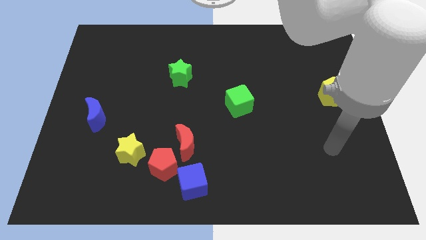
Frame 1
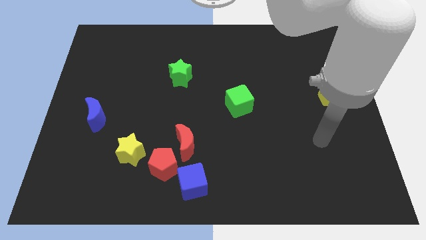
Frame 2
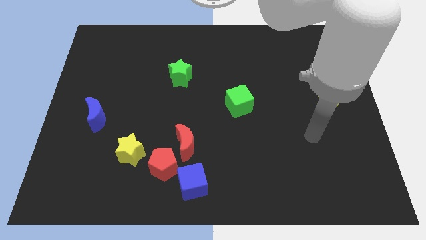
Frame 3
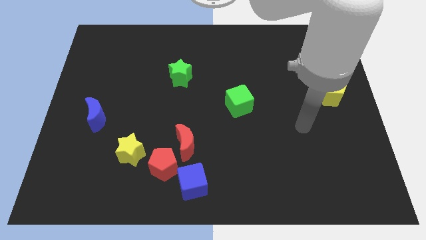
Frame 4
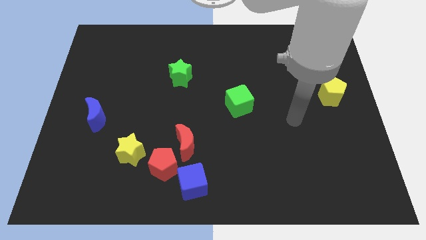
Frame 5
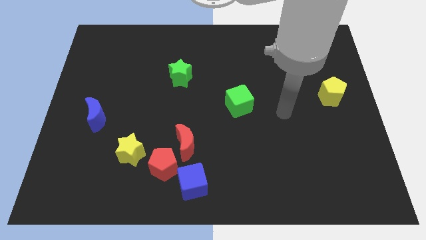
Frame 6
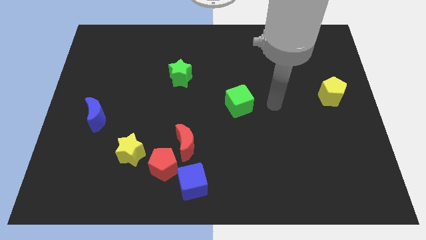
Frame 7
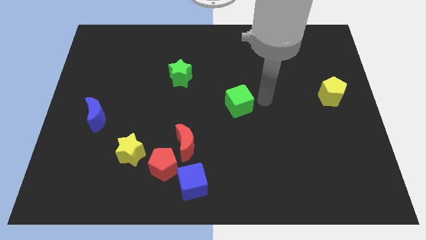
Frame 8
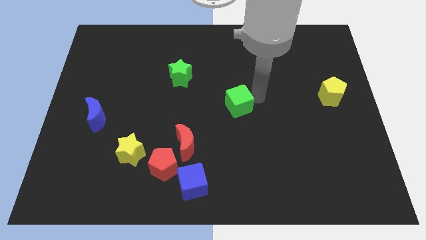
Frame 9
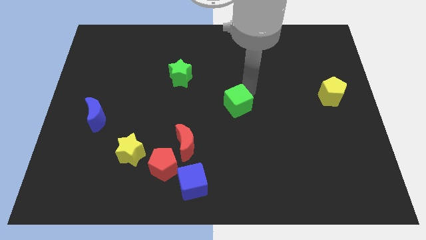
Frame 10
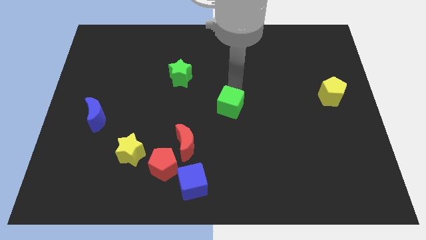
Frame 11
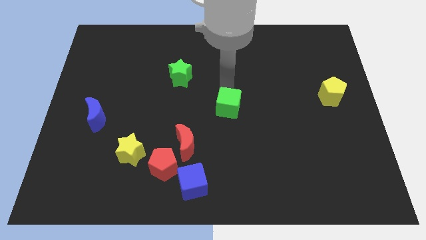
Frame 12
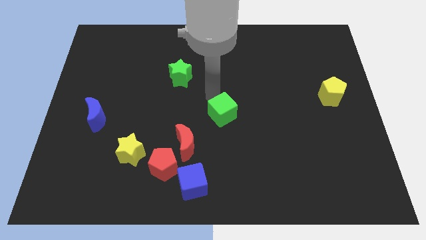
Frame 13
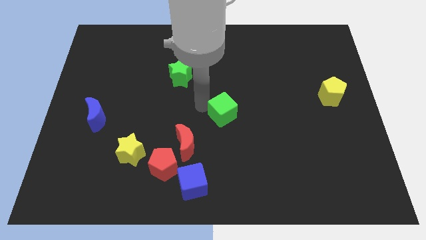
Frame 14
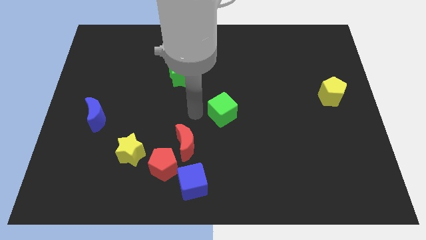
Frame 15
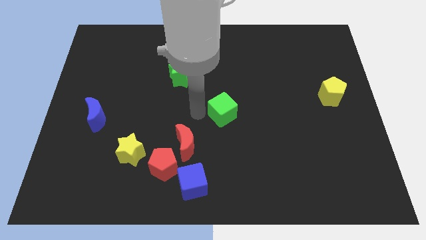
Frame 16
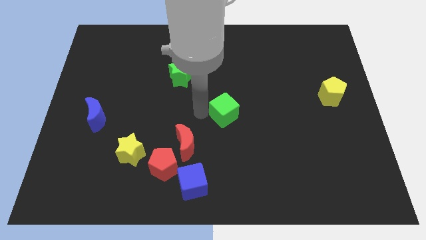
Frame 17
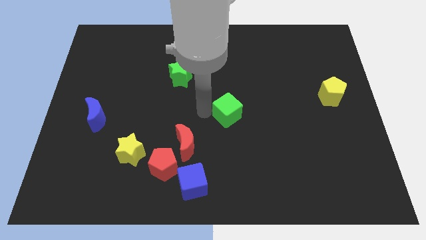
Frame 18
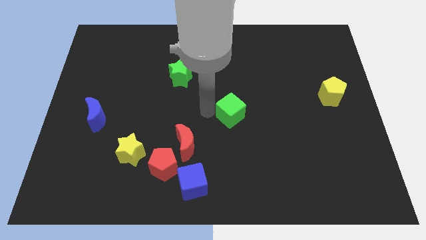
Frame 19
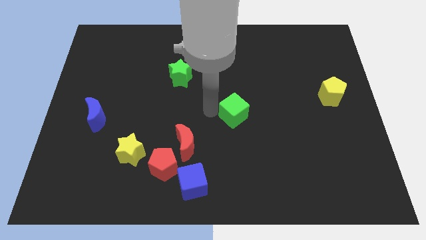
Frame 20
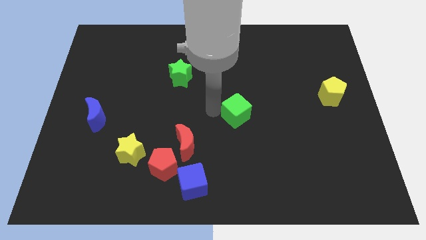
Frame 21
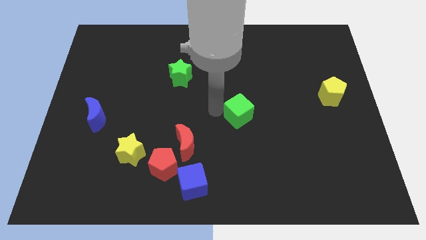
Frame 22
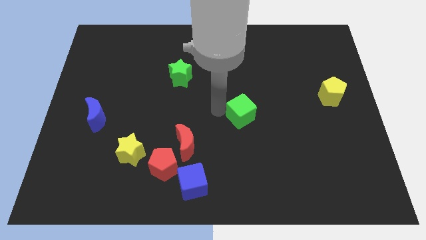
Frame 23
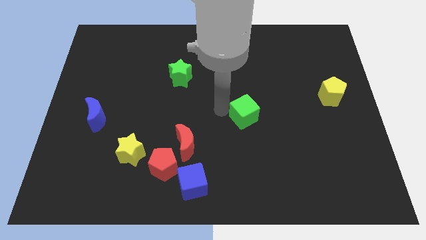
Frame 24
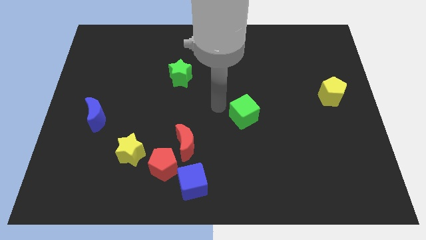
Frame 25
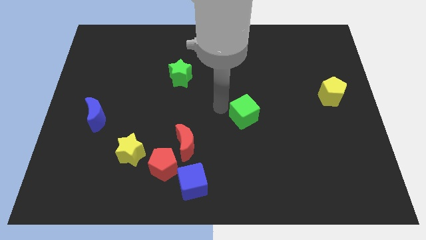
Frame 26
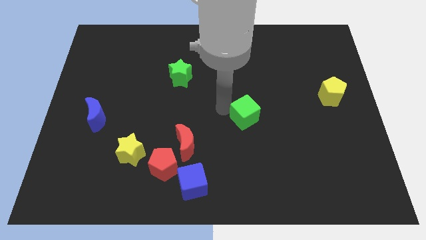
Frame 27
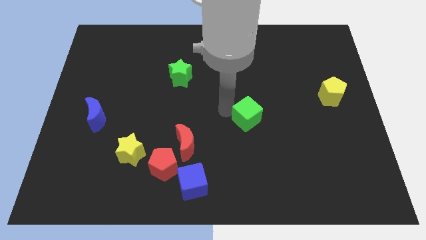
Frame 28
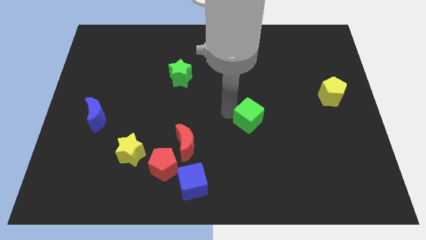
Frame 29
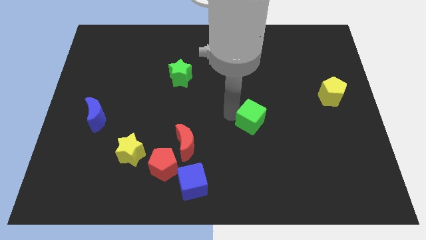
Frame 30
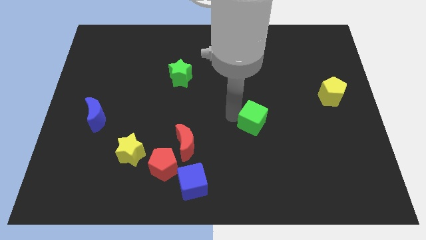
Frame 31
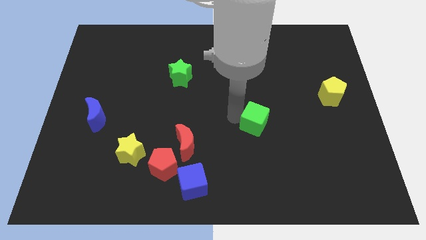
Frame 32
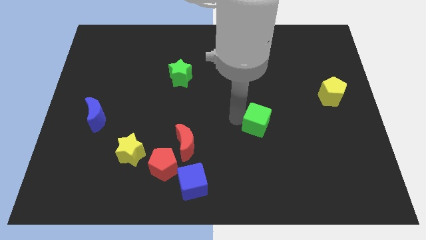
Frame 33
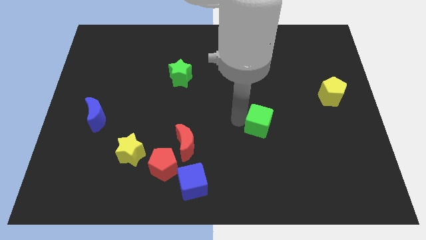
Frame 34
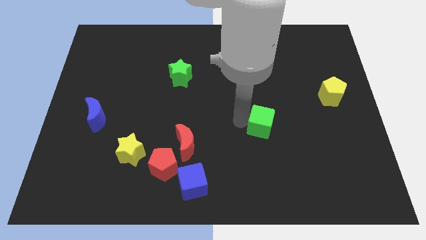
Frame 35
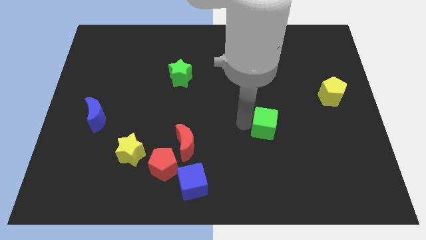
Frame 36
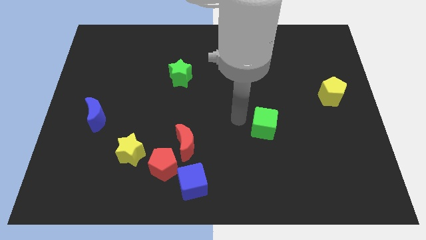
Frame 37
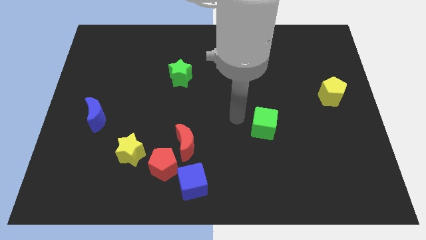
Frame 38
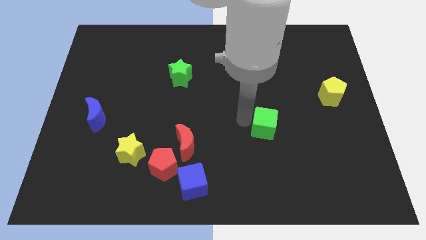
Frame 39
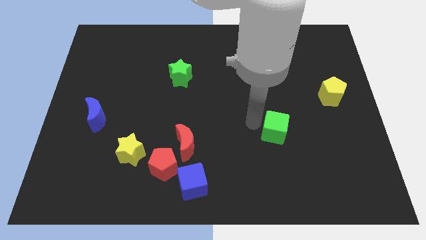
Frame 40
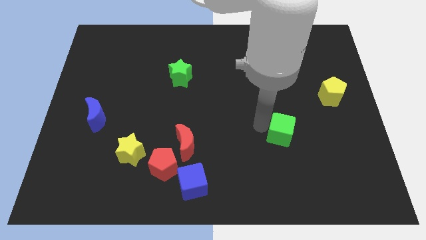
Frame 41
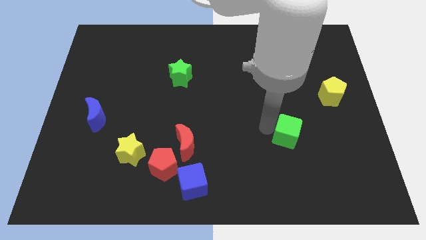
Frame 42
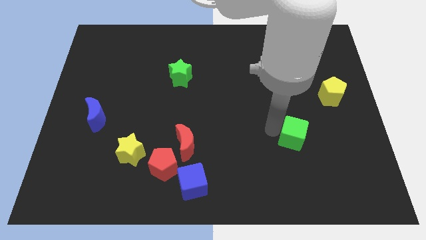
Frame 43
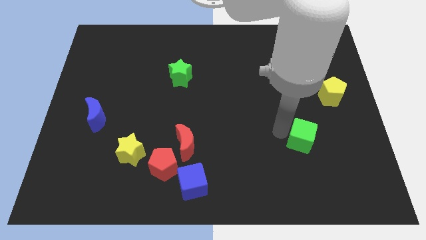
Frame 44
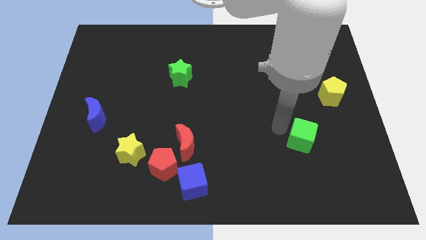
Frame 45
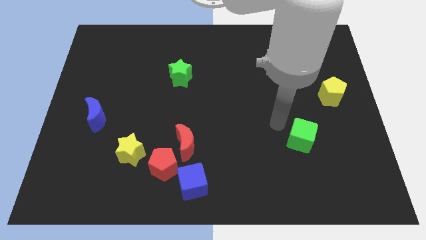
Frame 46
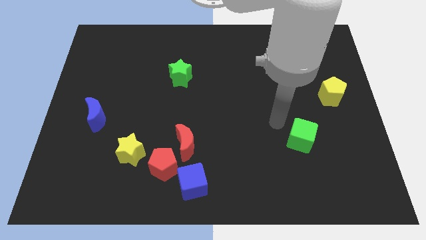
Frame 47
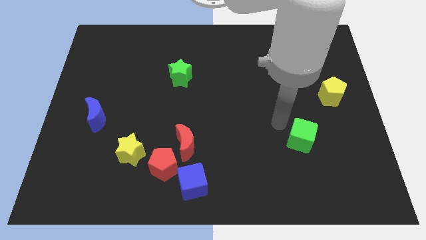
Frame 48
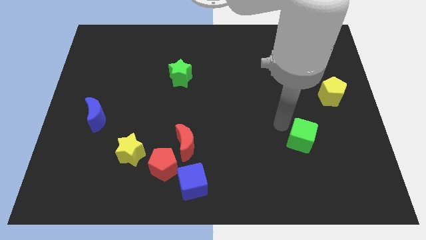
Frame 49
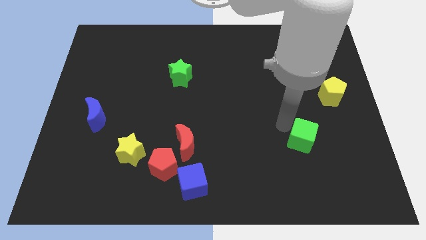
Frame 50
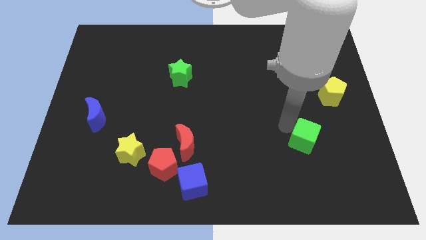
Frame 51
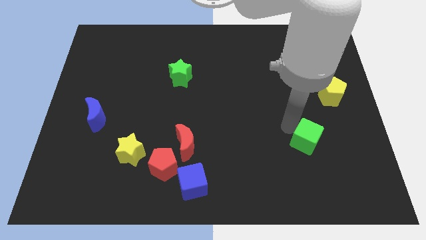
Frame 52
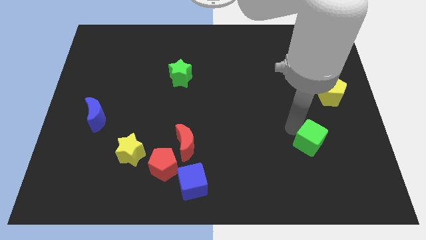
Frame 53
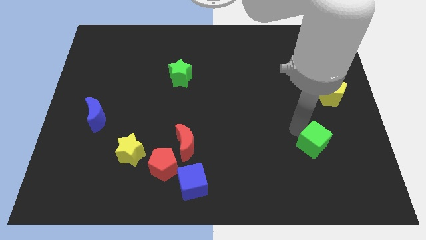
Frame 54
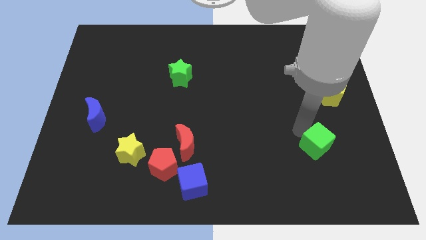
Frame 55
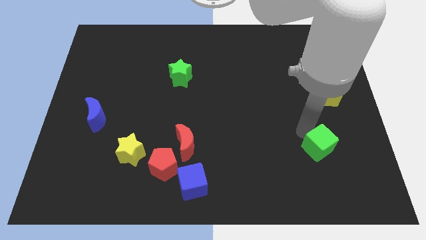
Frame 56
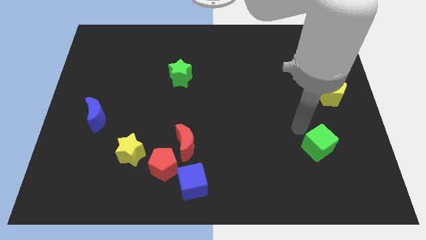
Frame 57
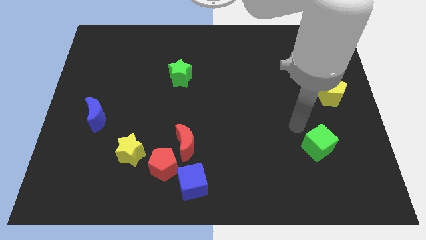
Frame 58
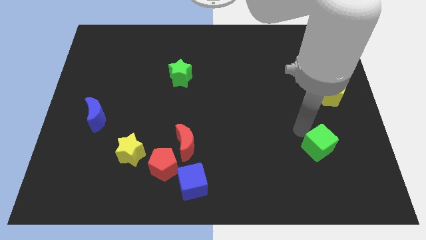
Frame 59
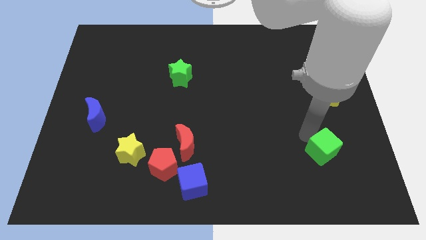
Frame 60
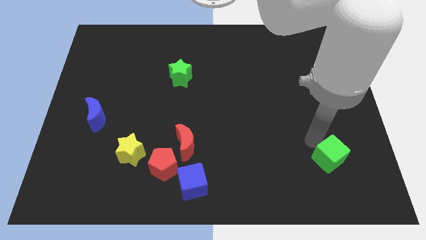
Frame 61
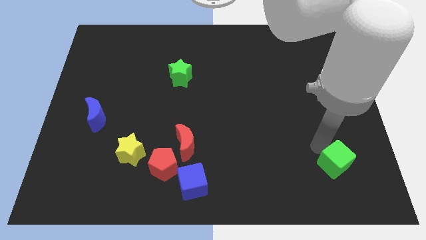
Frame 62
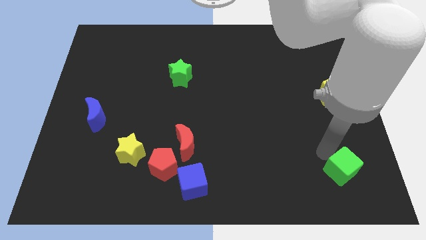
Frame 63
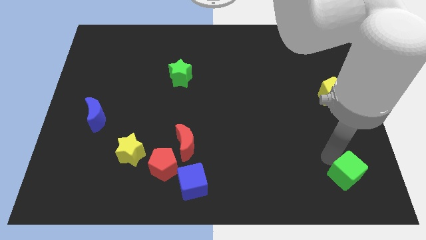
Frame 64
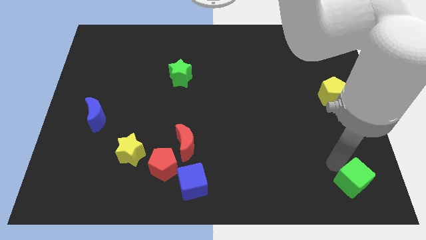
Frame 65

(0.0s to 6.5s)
put the green cube to the bottom right

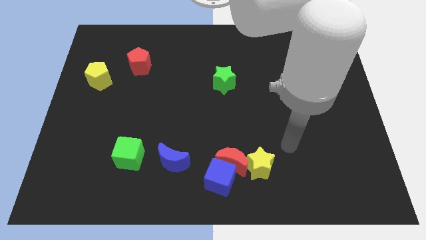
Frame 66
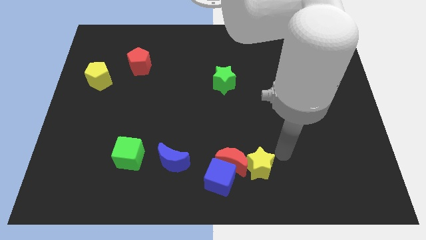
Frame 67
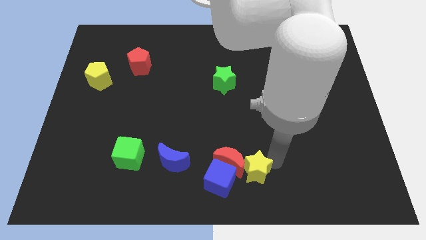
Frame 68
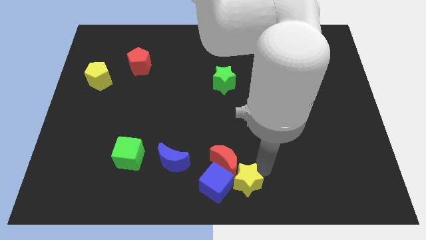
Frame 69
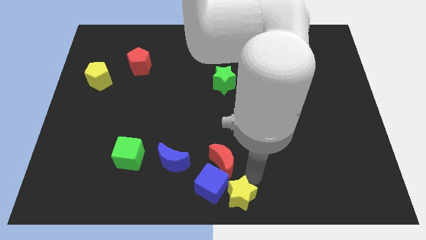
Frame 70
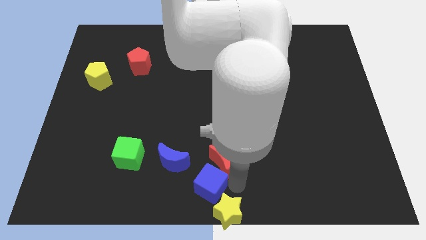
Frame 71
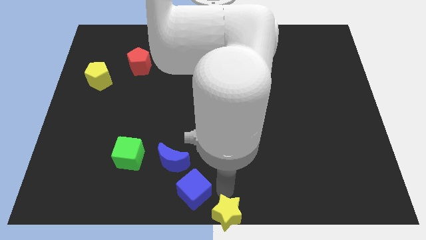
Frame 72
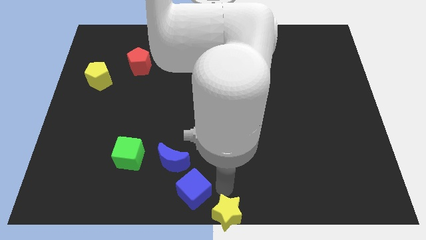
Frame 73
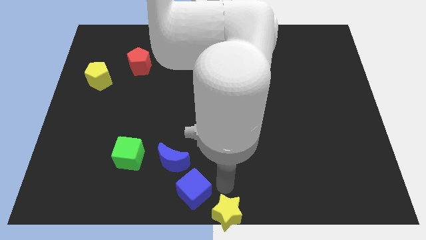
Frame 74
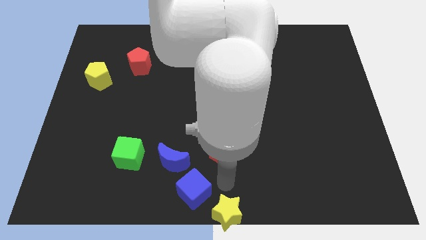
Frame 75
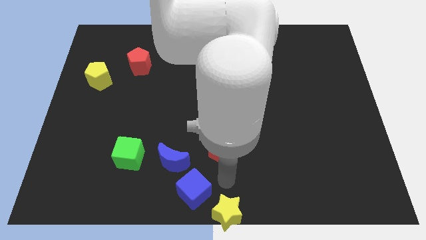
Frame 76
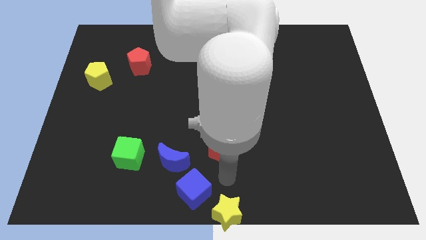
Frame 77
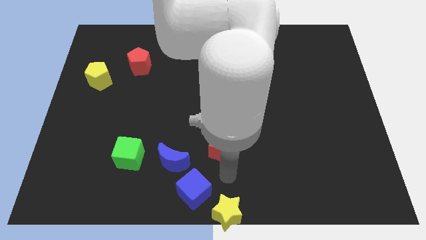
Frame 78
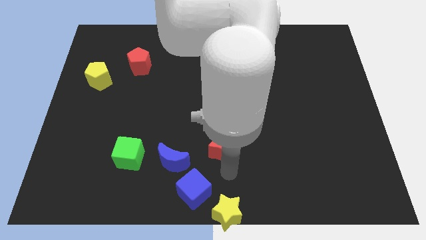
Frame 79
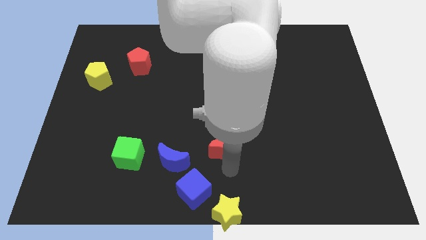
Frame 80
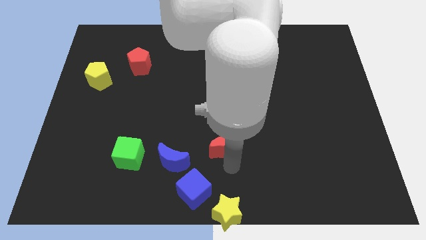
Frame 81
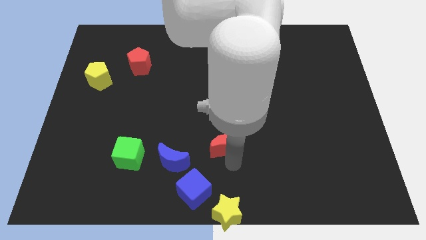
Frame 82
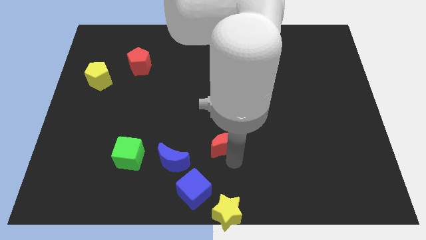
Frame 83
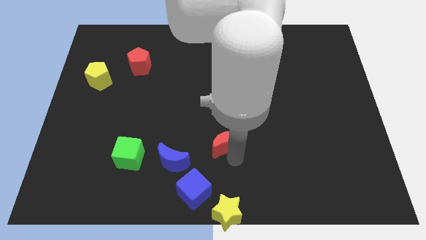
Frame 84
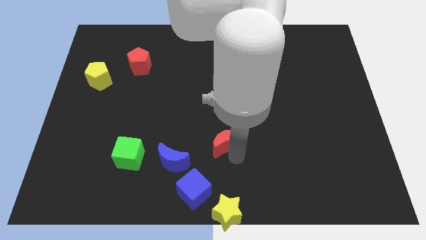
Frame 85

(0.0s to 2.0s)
move the red moon to the middle of the board
